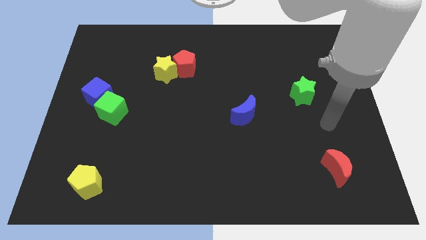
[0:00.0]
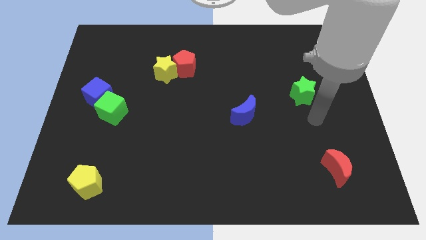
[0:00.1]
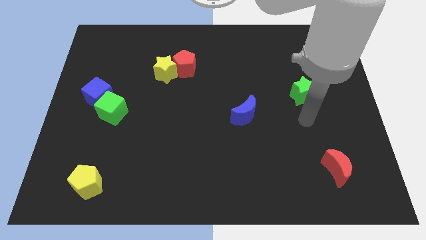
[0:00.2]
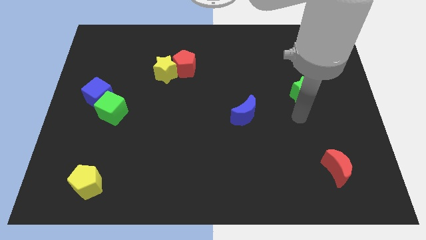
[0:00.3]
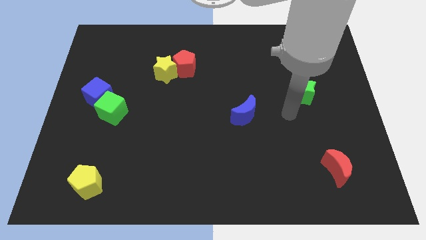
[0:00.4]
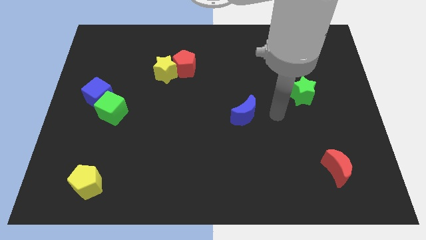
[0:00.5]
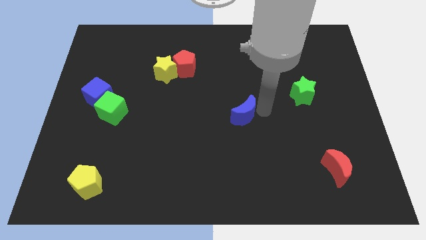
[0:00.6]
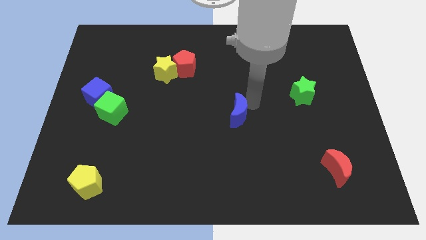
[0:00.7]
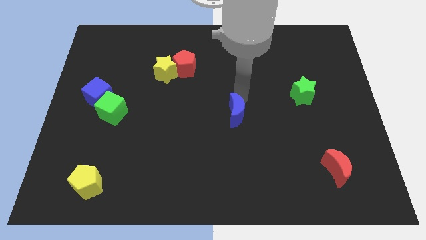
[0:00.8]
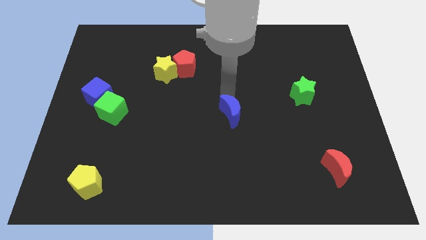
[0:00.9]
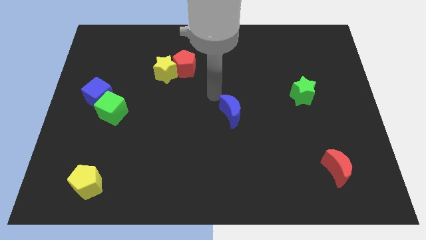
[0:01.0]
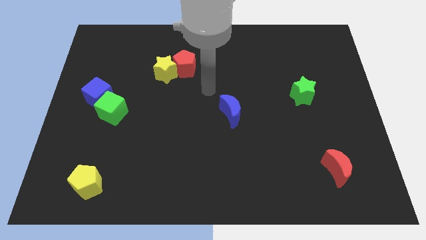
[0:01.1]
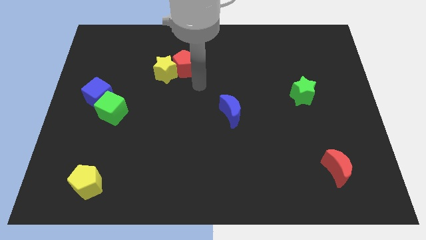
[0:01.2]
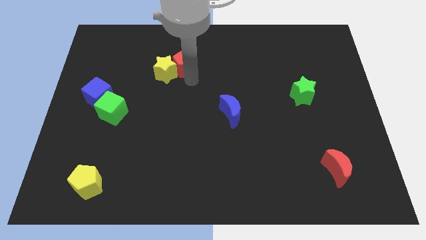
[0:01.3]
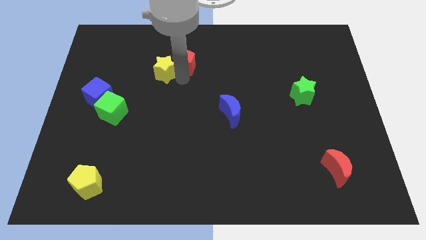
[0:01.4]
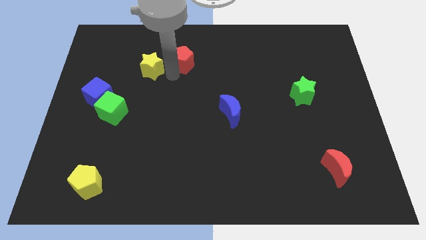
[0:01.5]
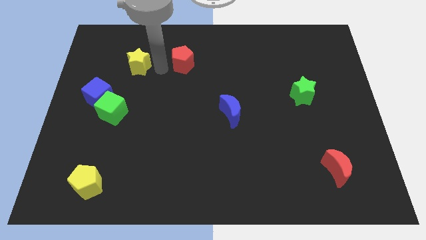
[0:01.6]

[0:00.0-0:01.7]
move the red pentagon away from the yellow star

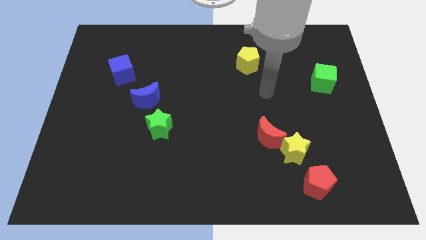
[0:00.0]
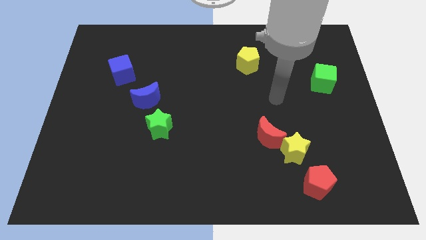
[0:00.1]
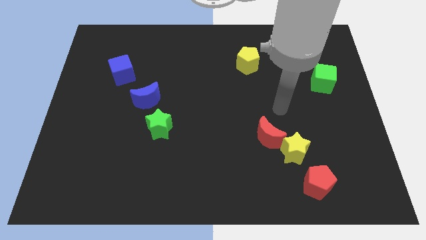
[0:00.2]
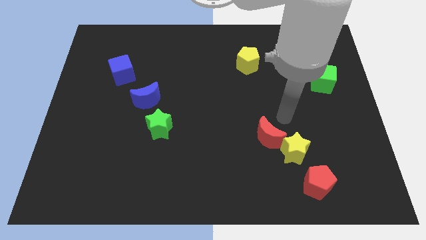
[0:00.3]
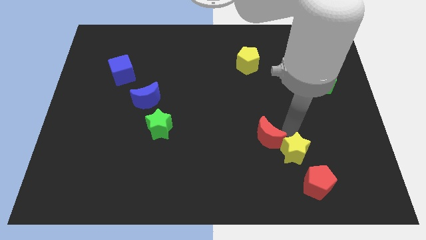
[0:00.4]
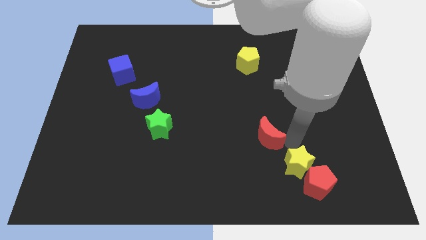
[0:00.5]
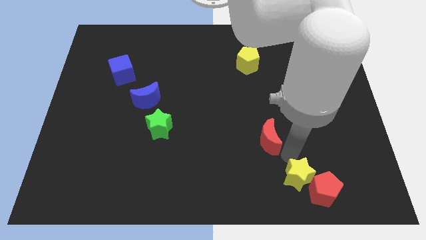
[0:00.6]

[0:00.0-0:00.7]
move the red moon away from the yellow star

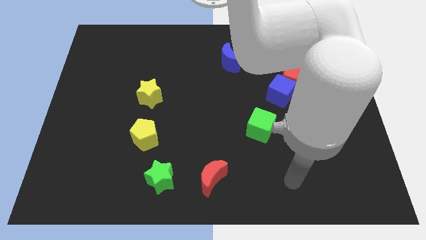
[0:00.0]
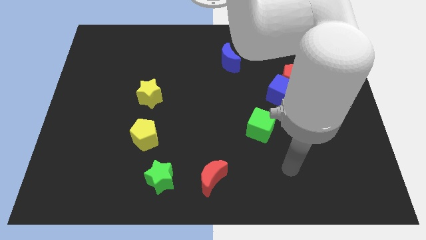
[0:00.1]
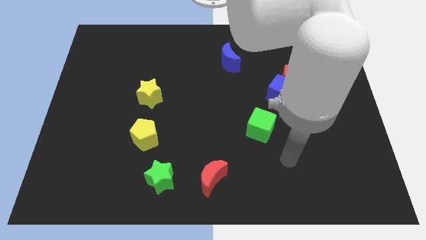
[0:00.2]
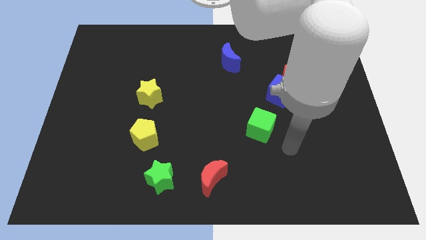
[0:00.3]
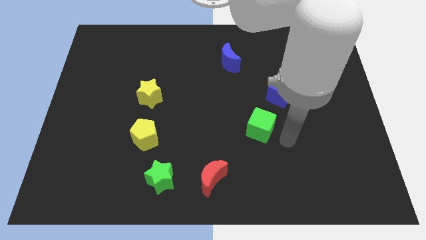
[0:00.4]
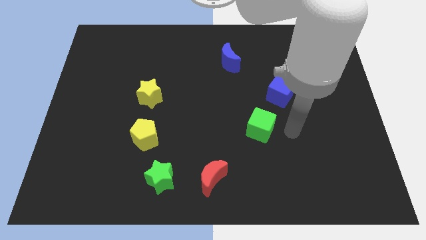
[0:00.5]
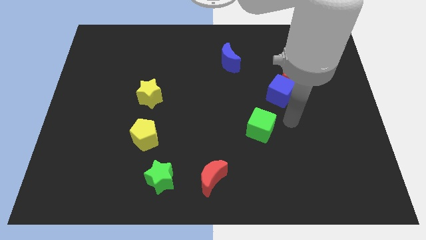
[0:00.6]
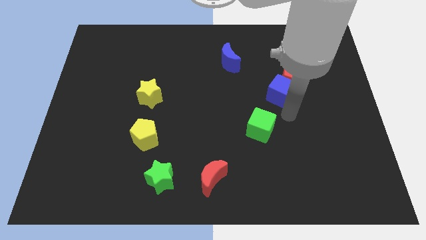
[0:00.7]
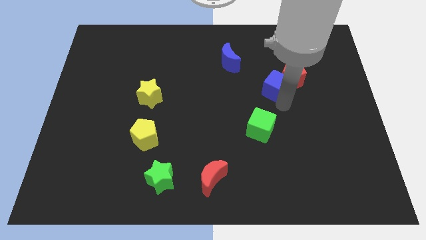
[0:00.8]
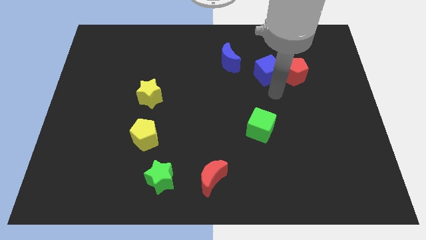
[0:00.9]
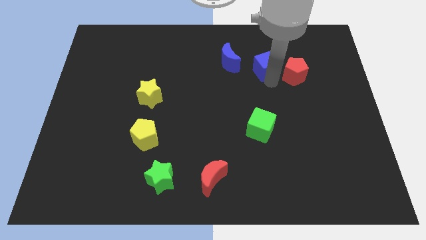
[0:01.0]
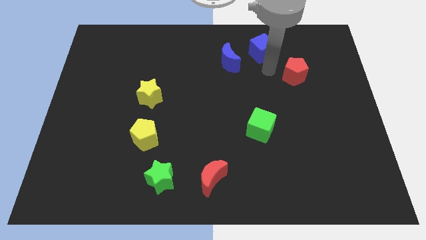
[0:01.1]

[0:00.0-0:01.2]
separate the red pentagon from the blue cube

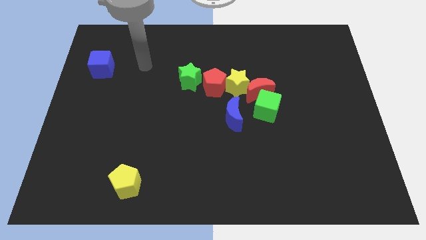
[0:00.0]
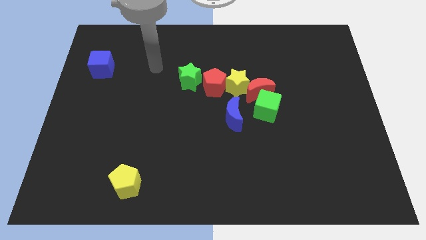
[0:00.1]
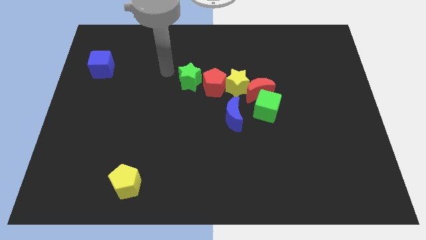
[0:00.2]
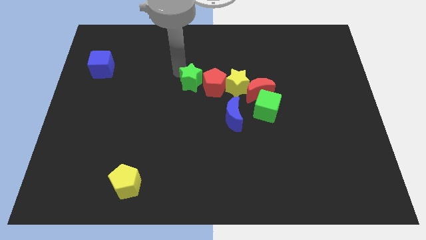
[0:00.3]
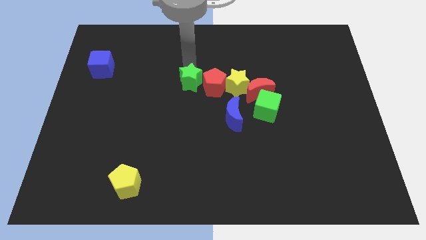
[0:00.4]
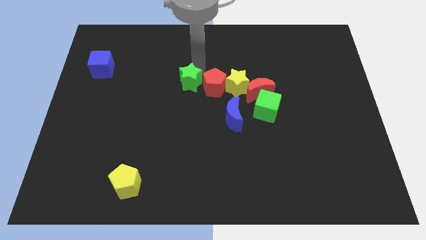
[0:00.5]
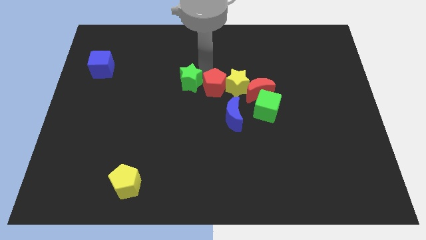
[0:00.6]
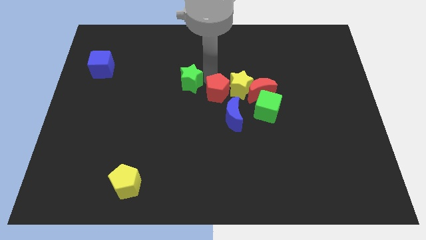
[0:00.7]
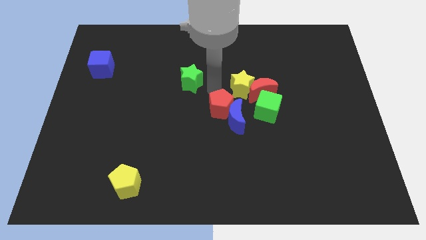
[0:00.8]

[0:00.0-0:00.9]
pull the green star apart from the red pentagon

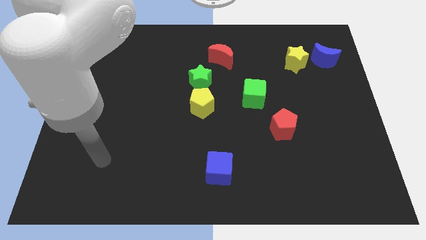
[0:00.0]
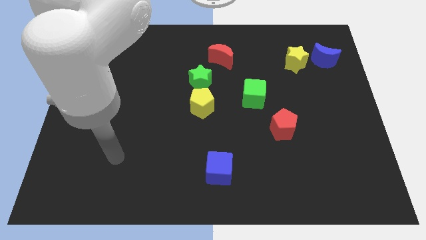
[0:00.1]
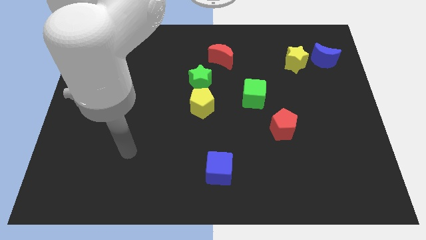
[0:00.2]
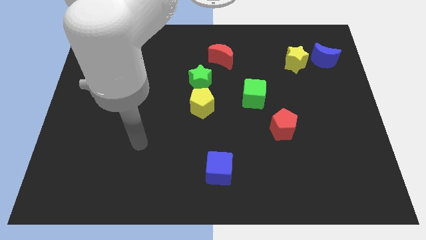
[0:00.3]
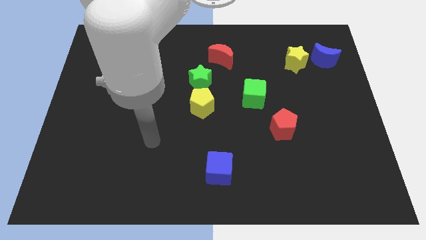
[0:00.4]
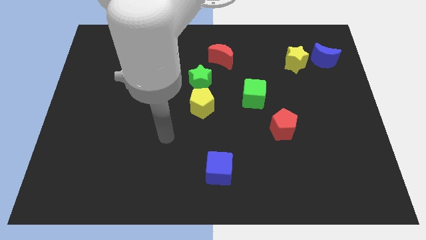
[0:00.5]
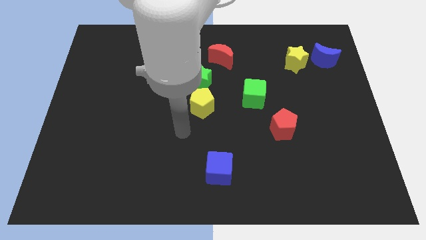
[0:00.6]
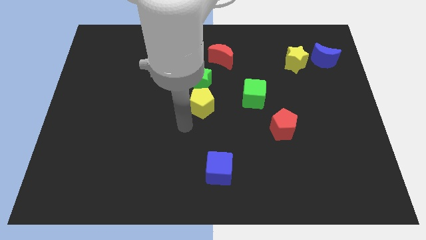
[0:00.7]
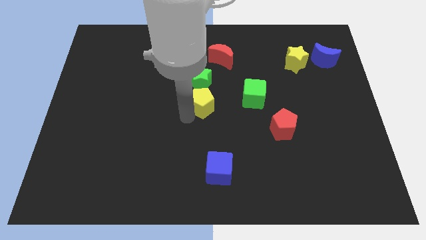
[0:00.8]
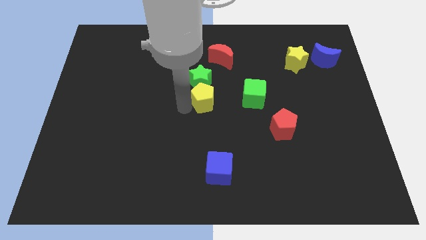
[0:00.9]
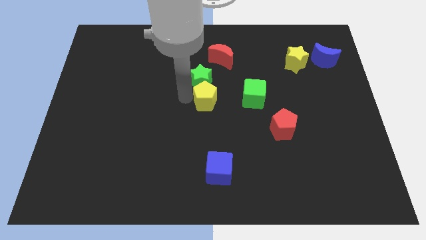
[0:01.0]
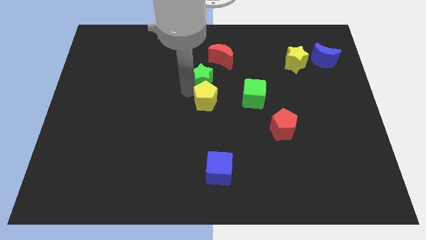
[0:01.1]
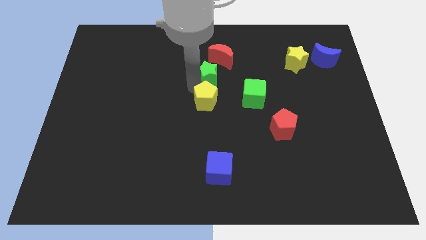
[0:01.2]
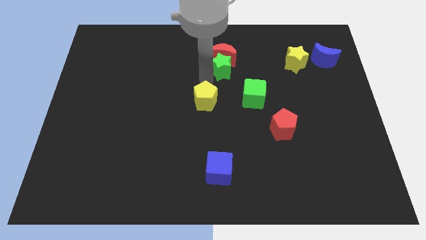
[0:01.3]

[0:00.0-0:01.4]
pull the yellow pentagon apart from the green star

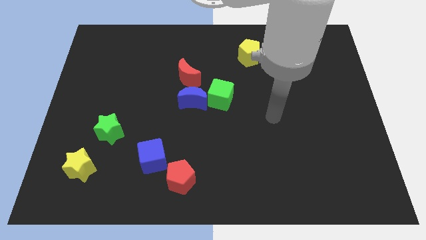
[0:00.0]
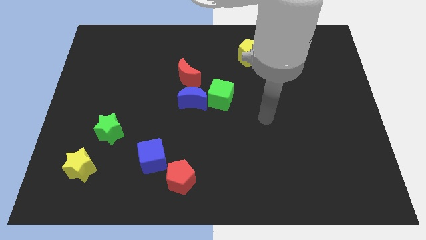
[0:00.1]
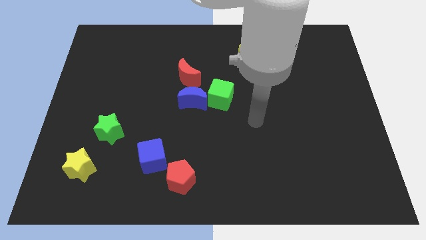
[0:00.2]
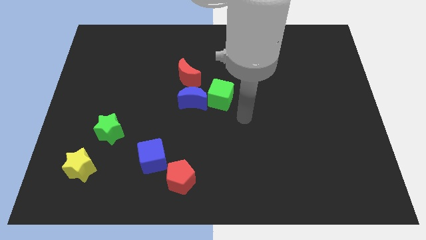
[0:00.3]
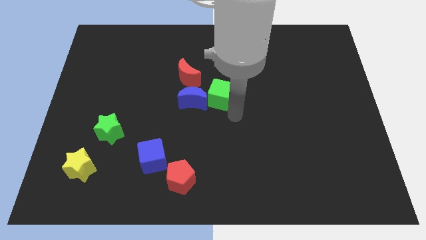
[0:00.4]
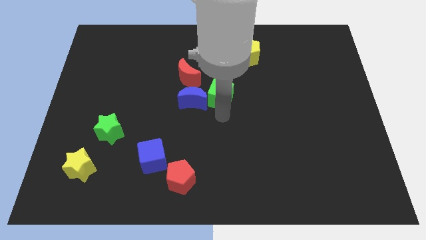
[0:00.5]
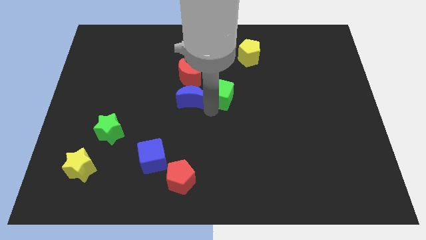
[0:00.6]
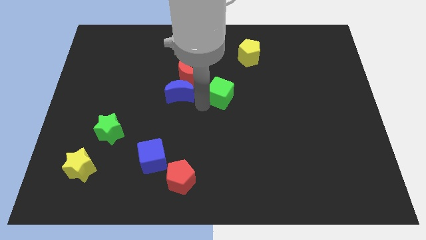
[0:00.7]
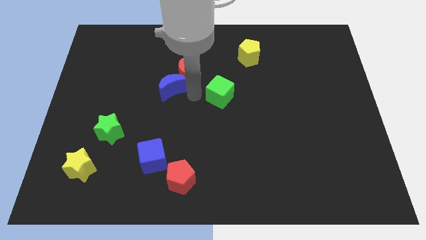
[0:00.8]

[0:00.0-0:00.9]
separate the green cube from the blue moon

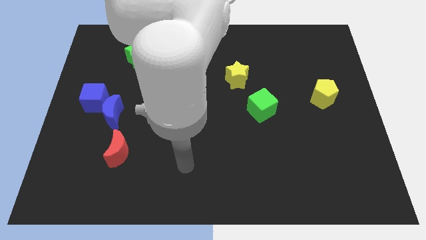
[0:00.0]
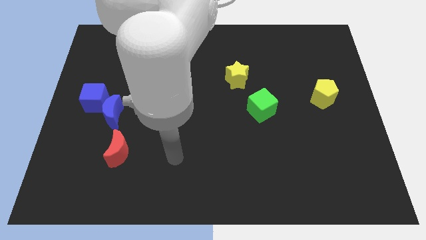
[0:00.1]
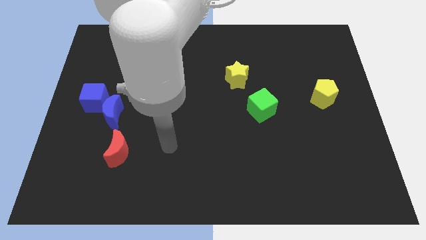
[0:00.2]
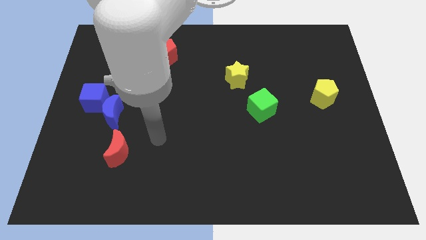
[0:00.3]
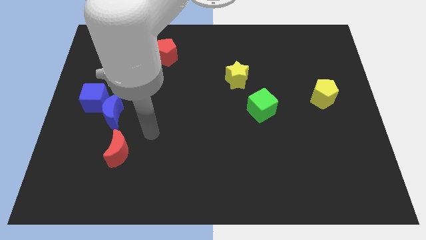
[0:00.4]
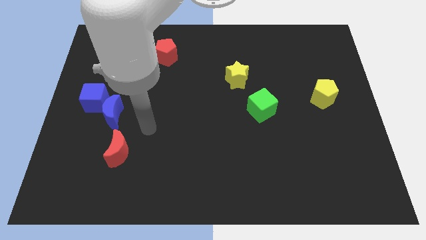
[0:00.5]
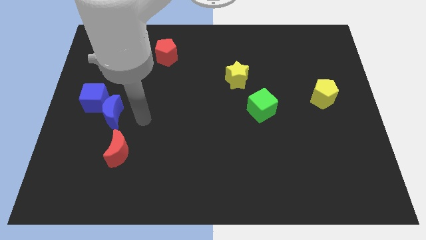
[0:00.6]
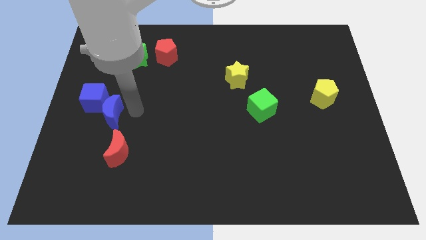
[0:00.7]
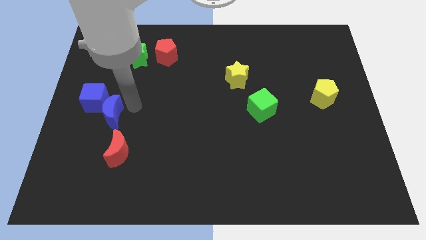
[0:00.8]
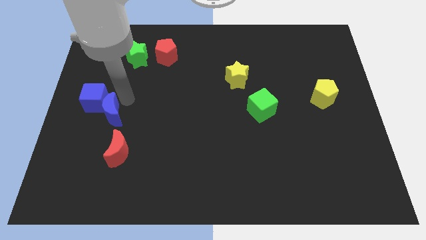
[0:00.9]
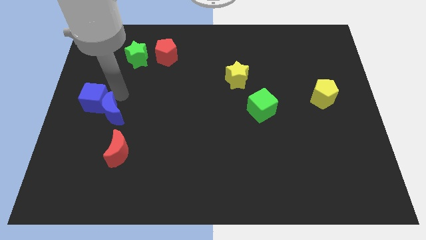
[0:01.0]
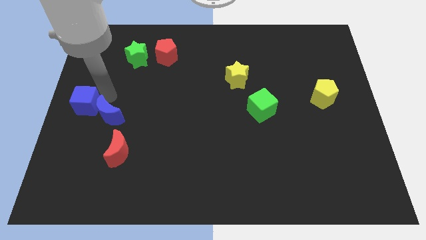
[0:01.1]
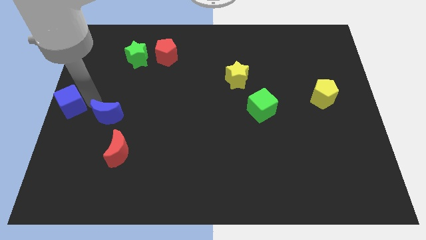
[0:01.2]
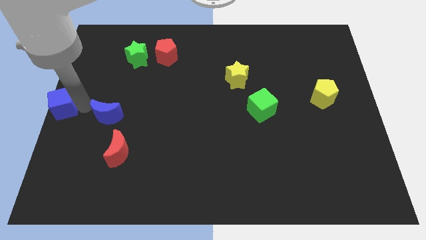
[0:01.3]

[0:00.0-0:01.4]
pull the blue moon apart from the blue cube

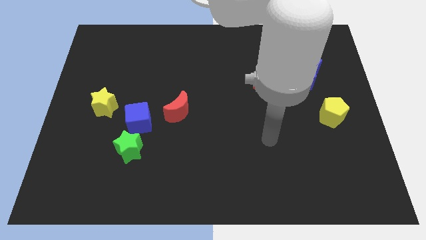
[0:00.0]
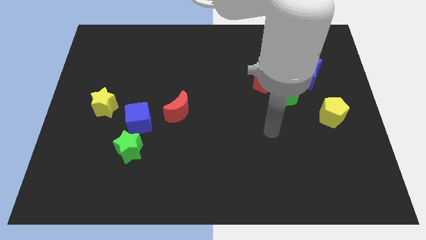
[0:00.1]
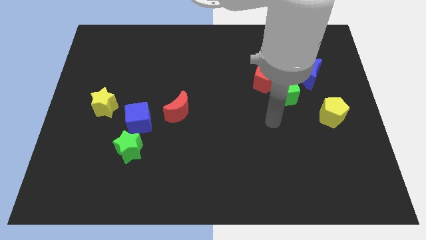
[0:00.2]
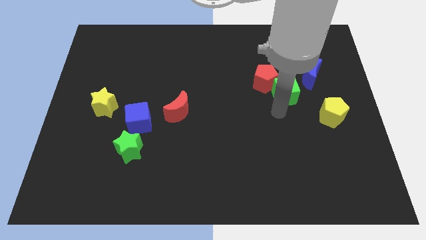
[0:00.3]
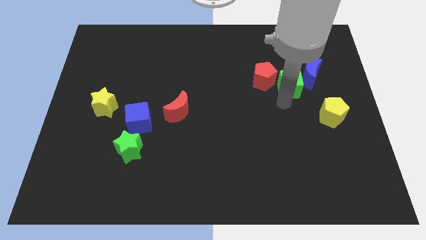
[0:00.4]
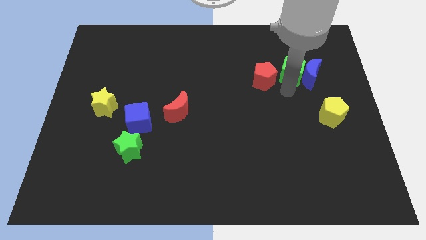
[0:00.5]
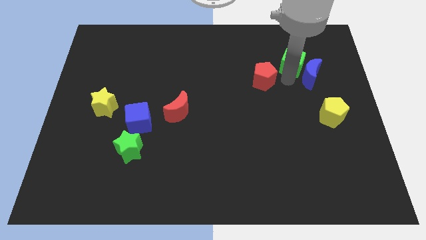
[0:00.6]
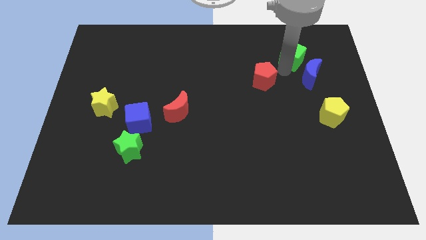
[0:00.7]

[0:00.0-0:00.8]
pull the red pentagon apart from the green cube

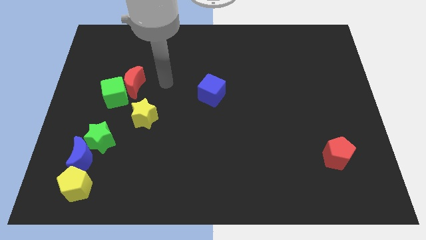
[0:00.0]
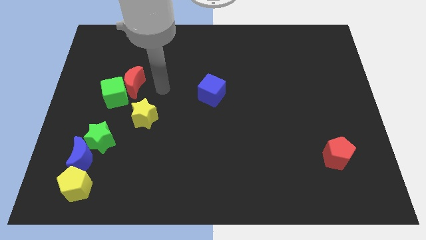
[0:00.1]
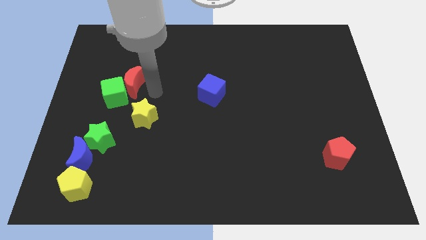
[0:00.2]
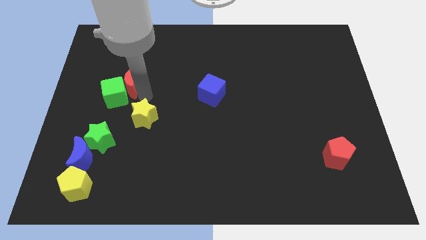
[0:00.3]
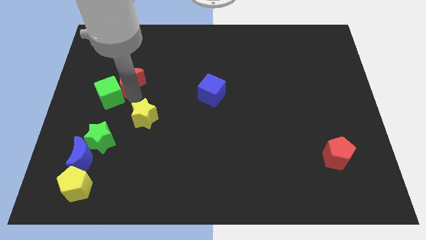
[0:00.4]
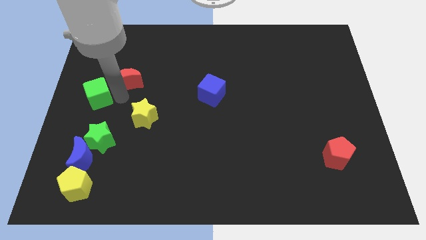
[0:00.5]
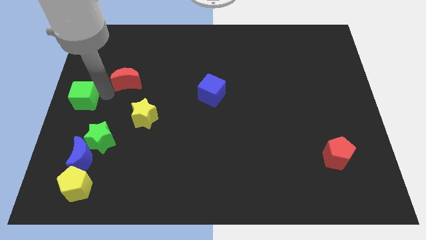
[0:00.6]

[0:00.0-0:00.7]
pull the red moon apart from the green cube
